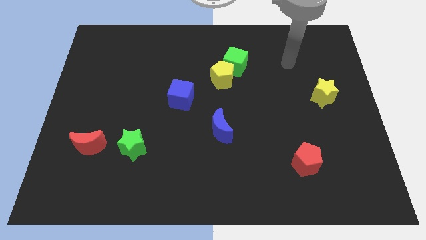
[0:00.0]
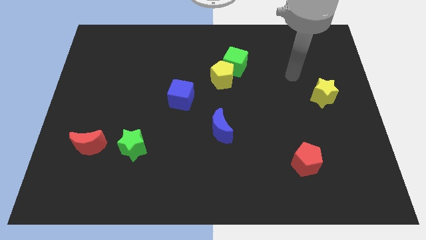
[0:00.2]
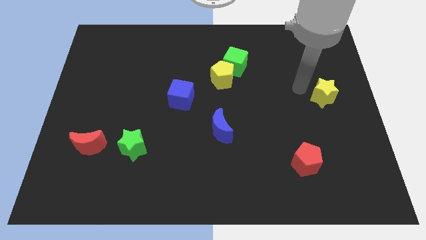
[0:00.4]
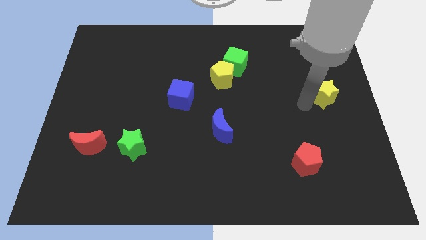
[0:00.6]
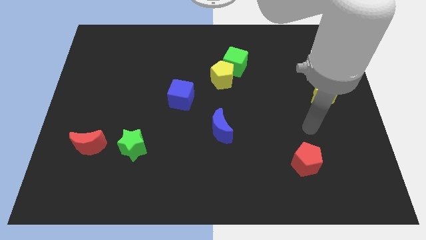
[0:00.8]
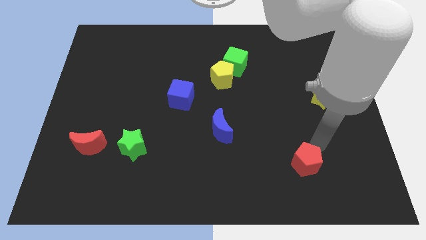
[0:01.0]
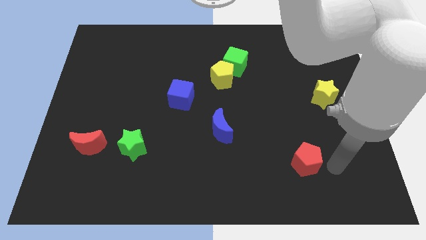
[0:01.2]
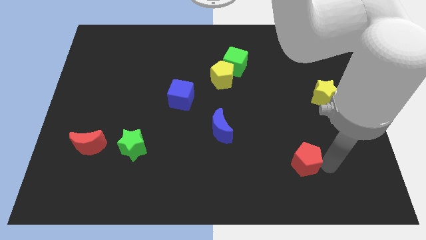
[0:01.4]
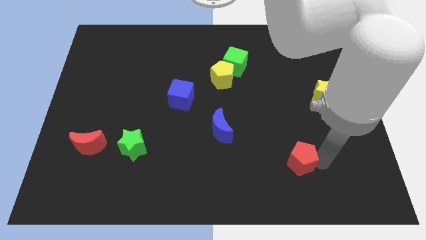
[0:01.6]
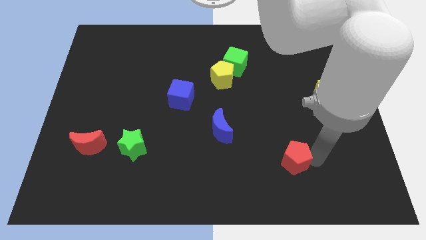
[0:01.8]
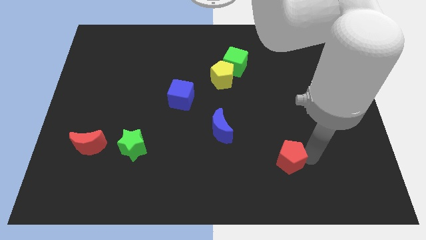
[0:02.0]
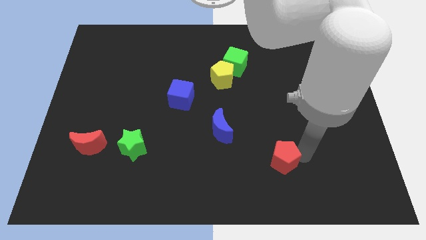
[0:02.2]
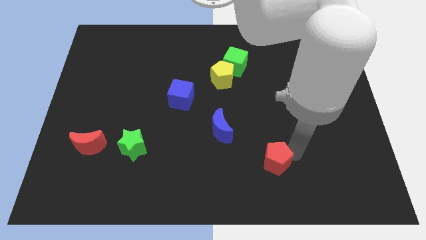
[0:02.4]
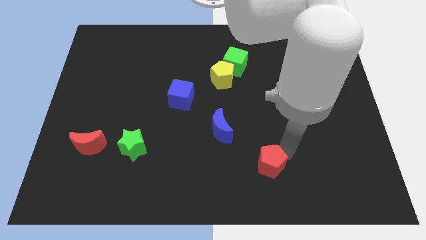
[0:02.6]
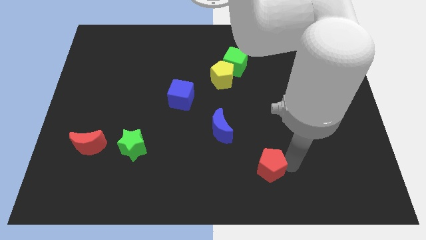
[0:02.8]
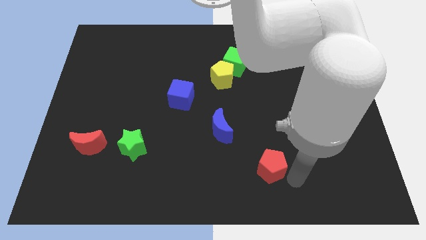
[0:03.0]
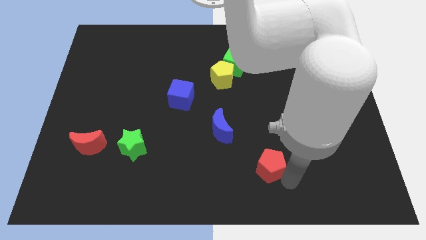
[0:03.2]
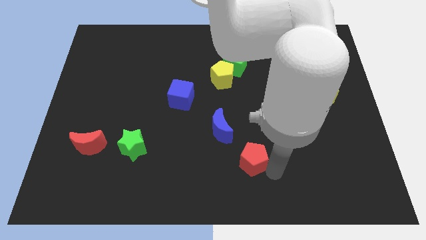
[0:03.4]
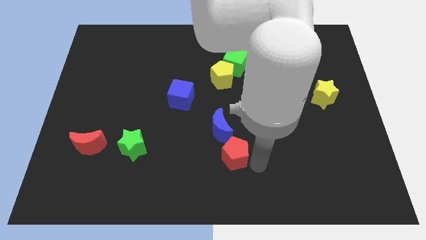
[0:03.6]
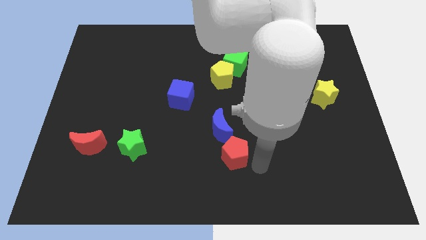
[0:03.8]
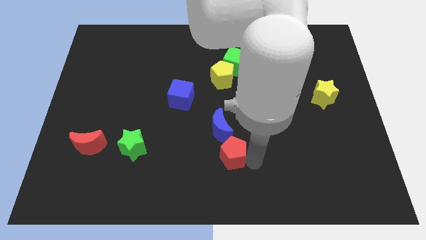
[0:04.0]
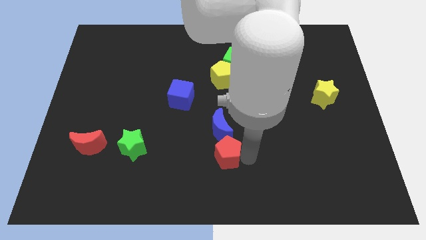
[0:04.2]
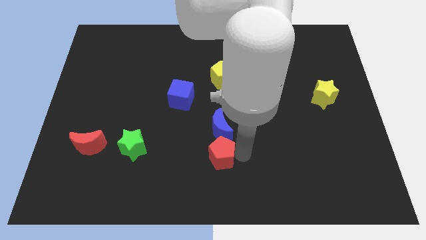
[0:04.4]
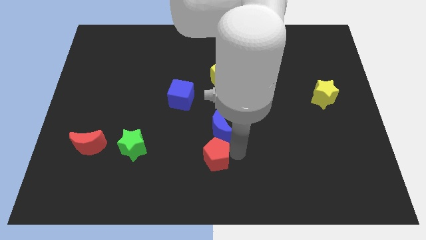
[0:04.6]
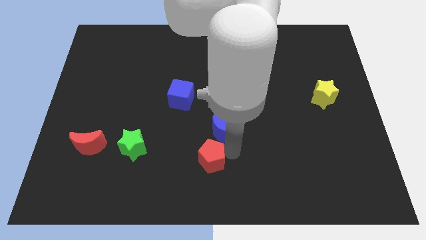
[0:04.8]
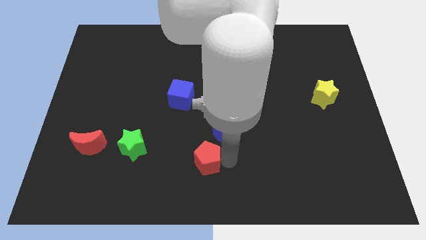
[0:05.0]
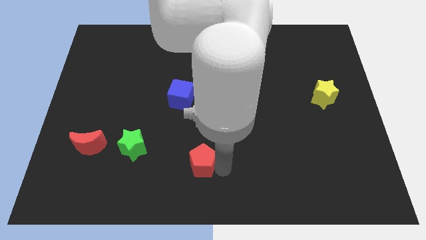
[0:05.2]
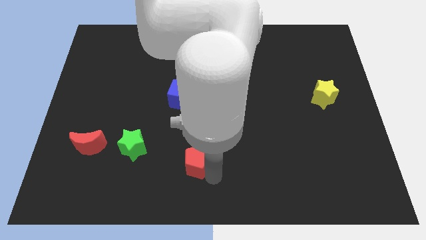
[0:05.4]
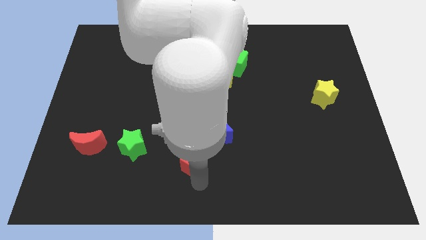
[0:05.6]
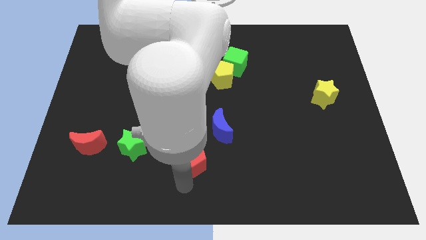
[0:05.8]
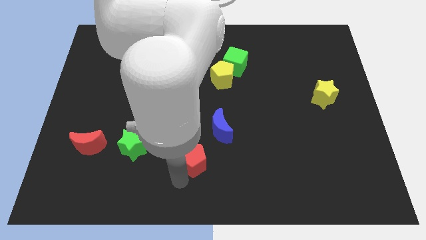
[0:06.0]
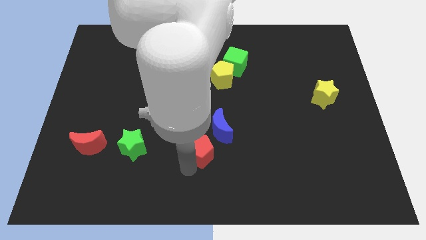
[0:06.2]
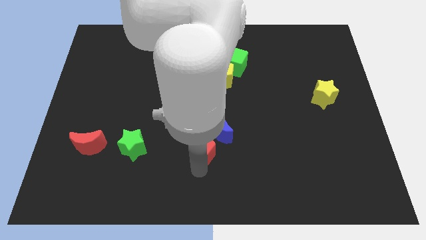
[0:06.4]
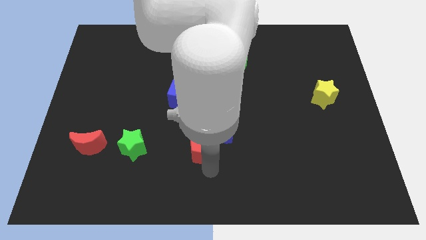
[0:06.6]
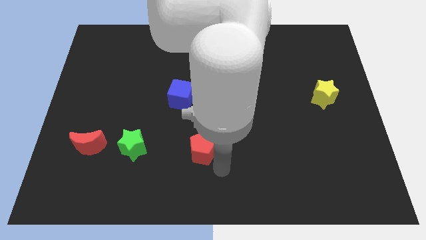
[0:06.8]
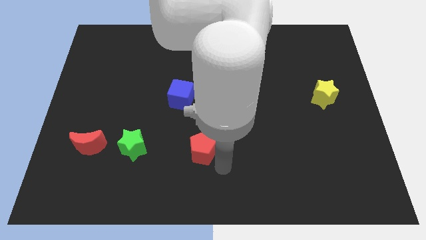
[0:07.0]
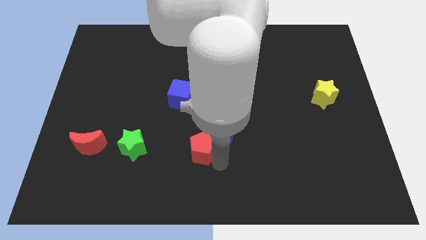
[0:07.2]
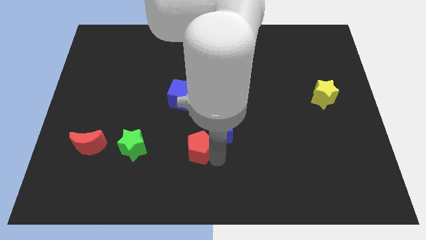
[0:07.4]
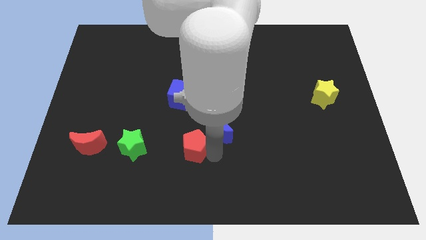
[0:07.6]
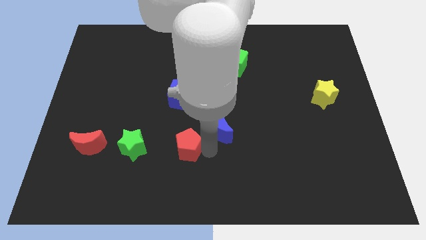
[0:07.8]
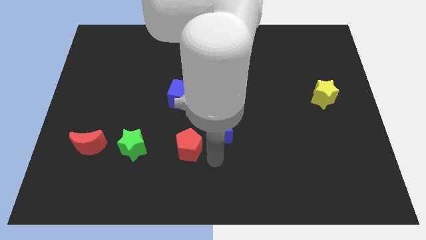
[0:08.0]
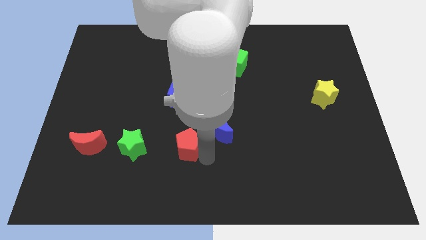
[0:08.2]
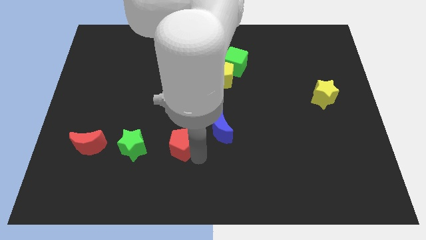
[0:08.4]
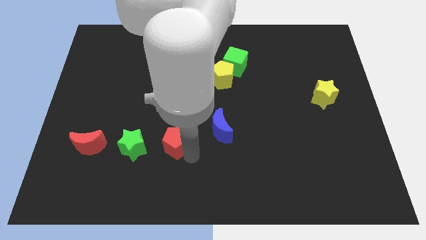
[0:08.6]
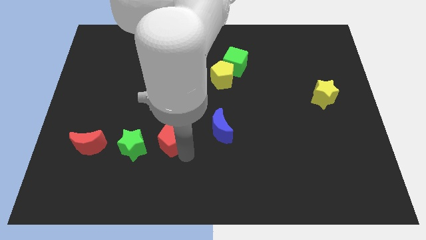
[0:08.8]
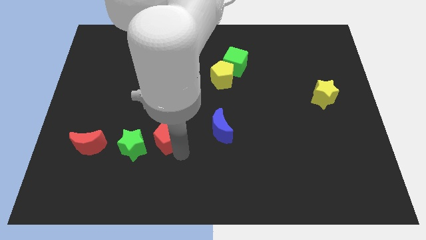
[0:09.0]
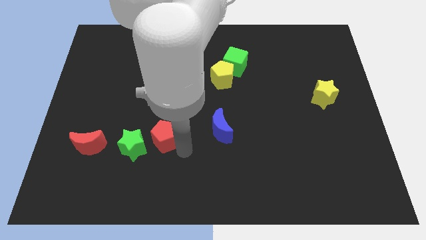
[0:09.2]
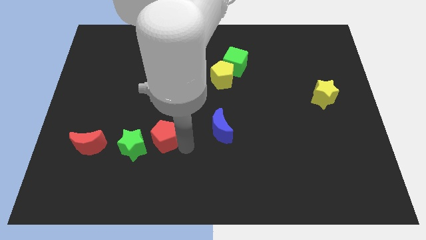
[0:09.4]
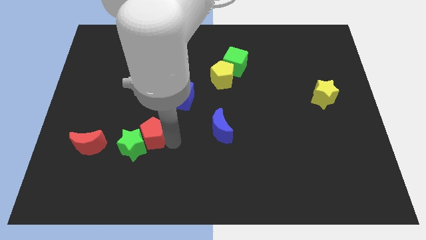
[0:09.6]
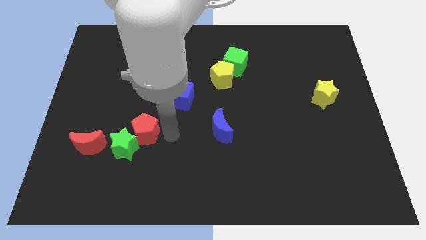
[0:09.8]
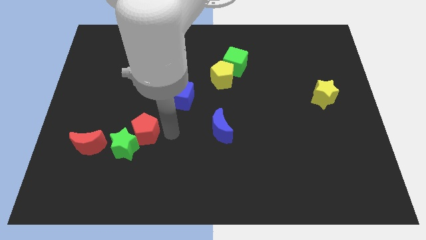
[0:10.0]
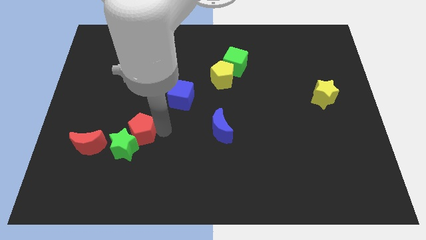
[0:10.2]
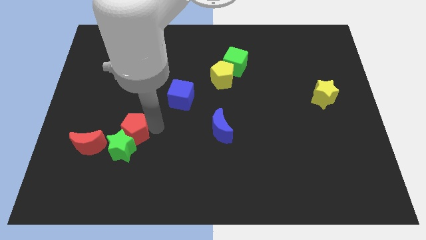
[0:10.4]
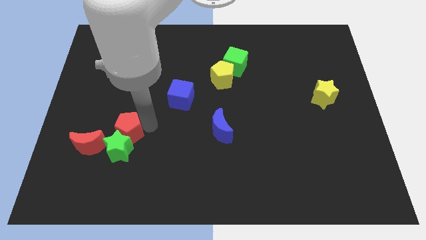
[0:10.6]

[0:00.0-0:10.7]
move the red pentagon to the top left of the green star

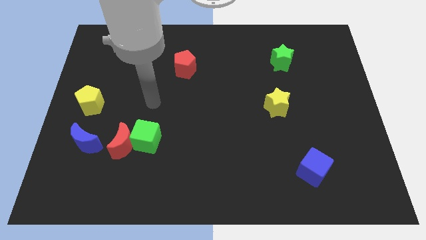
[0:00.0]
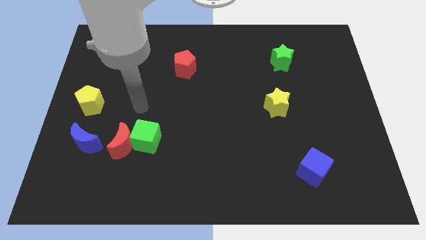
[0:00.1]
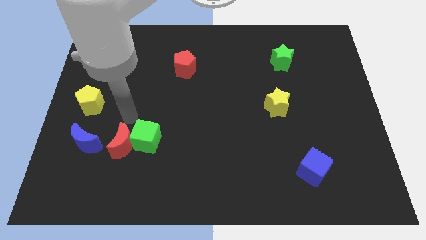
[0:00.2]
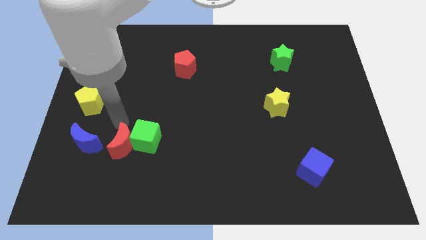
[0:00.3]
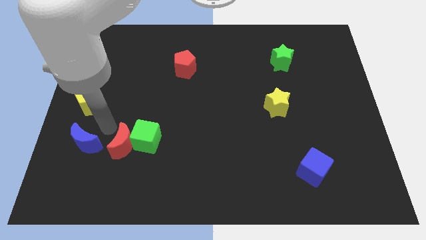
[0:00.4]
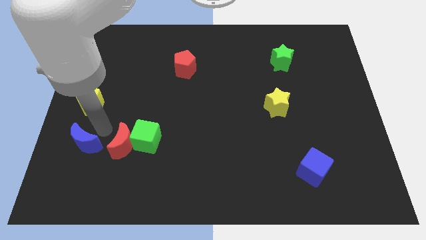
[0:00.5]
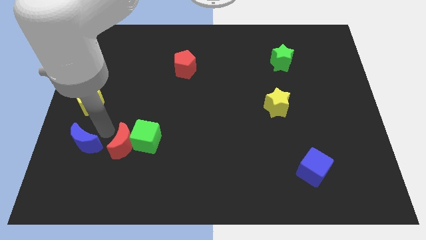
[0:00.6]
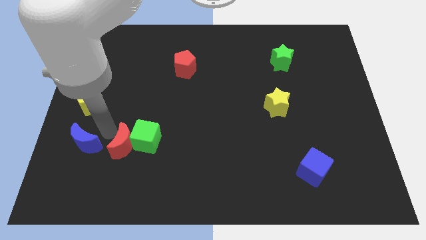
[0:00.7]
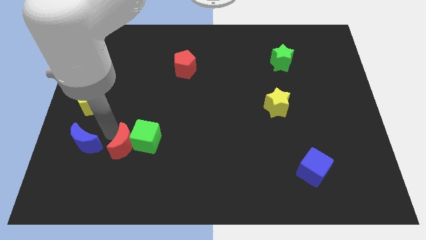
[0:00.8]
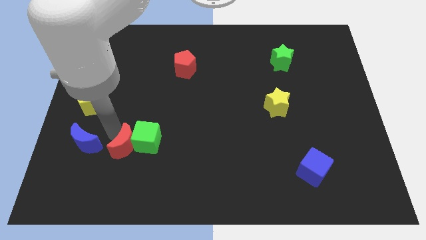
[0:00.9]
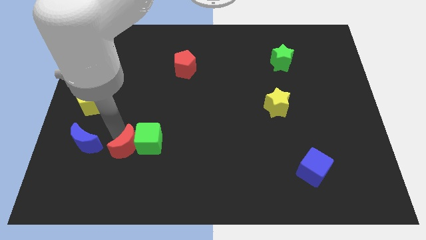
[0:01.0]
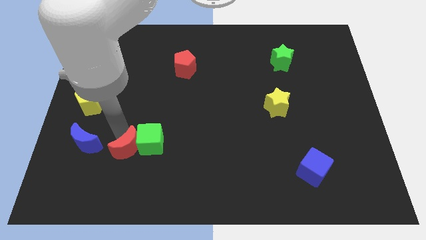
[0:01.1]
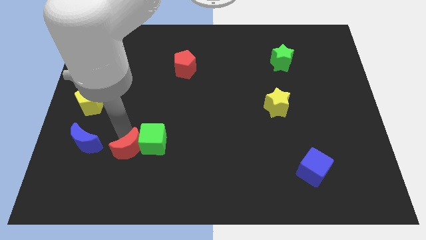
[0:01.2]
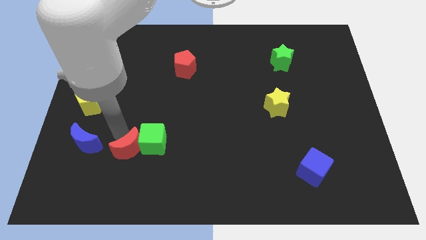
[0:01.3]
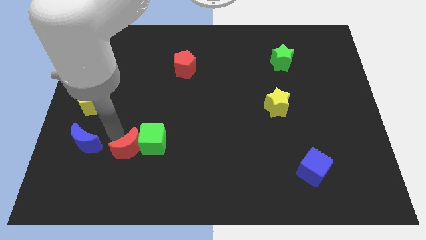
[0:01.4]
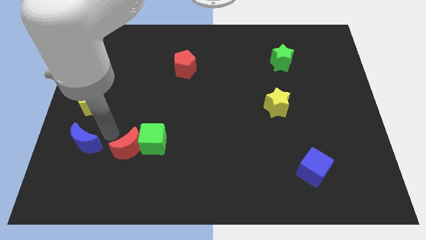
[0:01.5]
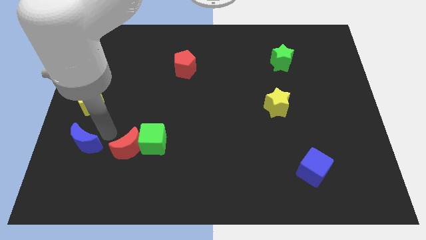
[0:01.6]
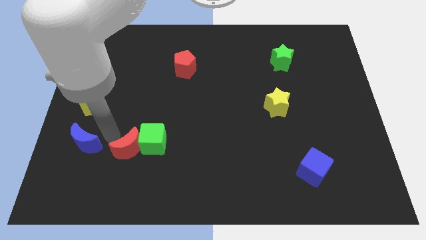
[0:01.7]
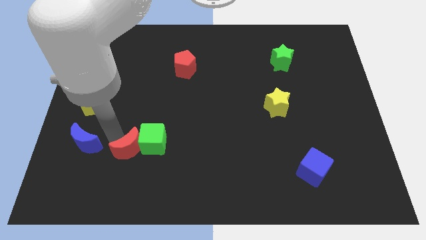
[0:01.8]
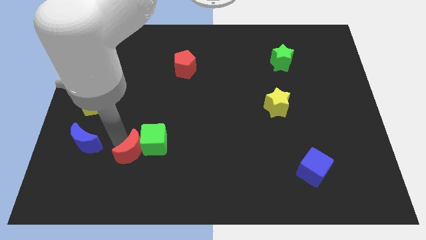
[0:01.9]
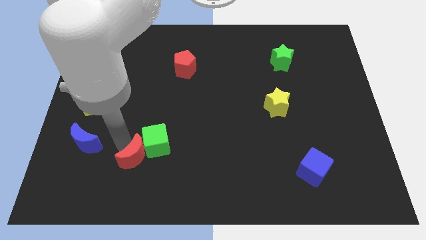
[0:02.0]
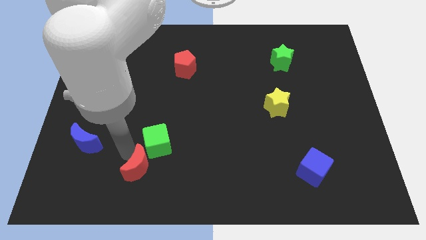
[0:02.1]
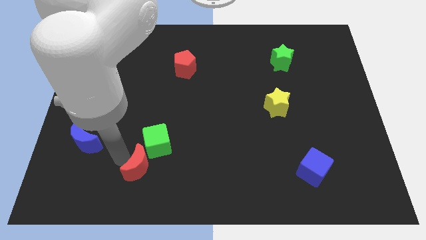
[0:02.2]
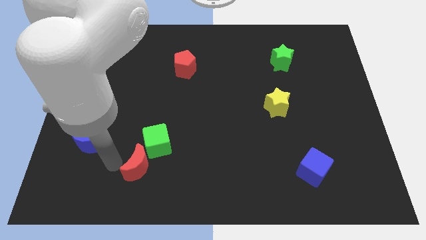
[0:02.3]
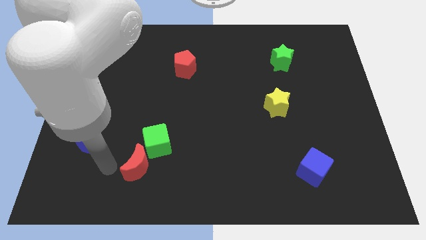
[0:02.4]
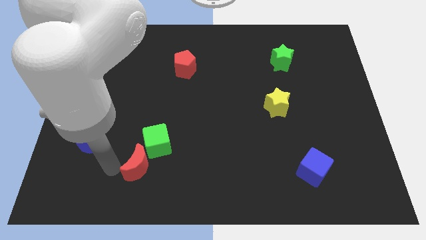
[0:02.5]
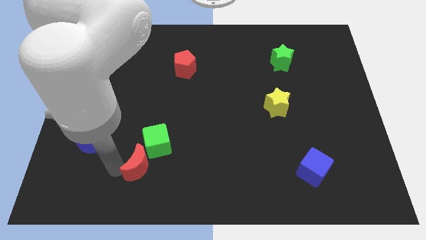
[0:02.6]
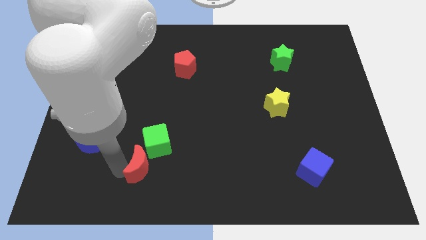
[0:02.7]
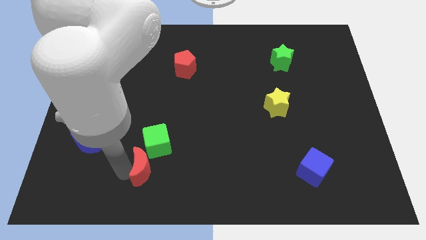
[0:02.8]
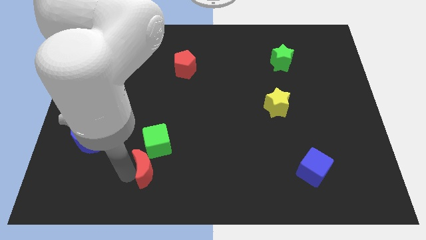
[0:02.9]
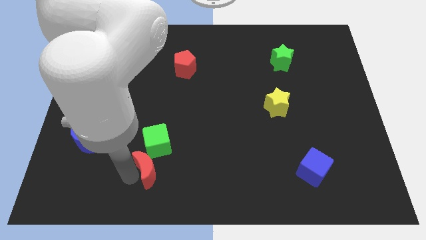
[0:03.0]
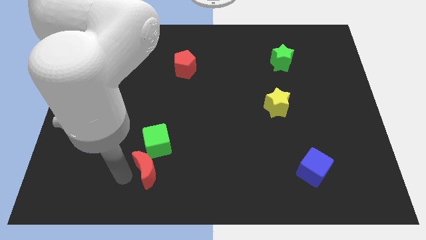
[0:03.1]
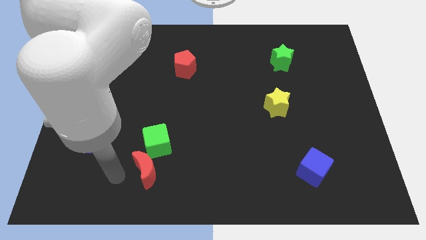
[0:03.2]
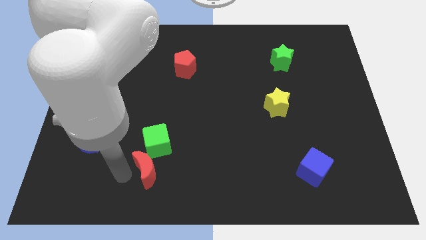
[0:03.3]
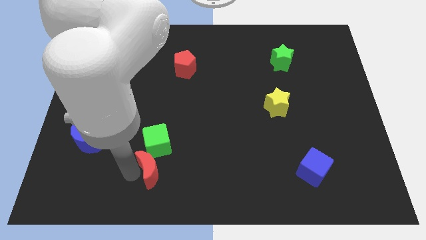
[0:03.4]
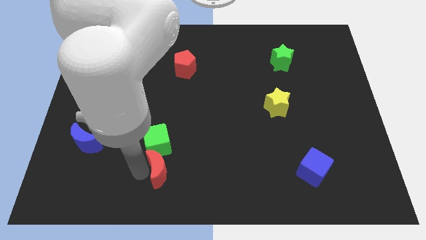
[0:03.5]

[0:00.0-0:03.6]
put the red moon diagonally down and to the right of the green cube
